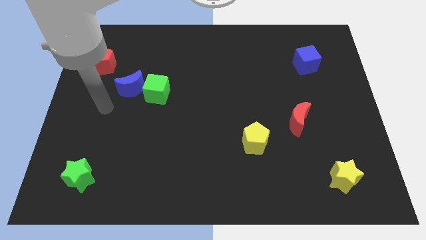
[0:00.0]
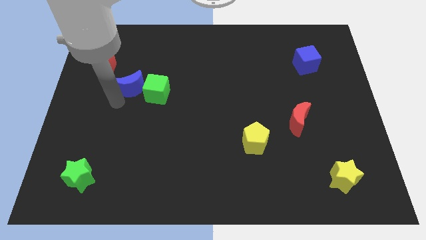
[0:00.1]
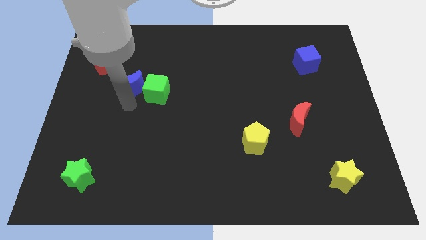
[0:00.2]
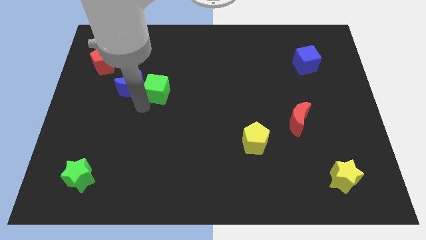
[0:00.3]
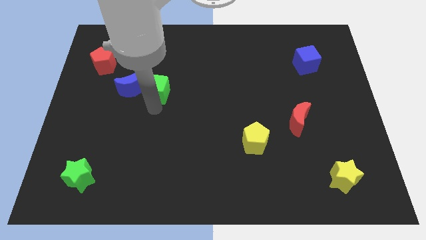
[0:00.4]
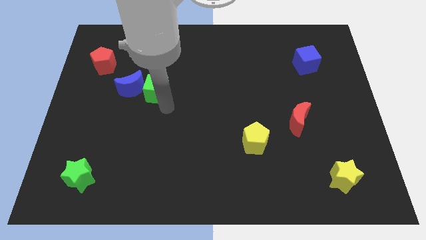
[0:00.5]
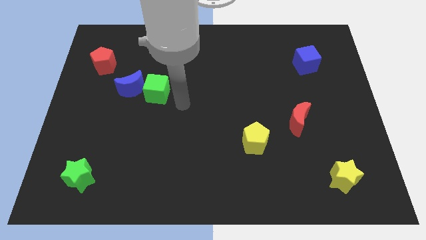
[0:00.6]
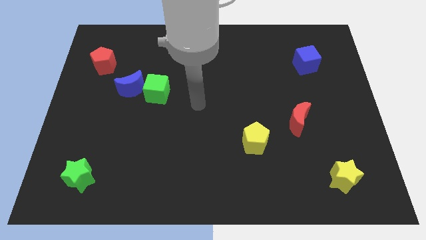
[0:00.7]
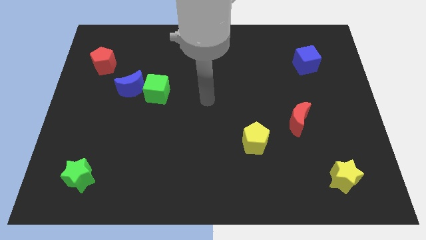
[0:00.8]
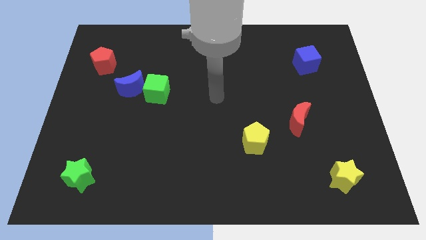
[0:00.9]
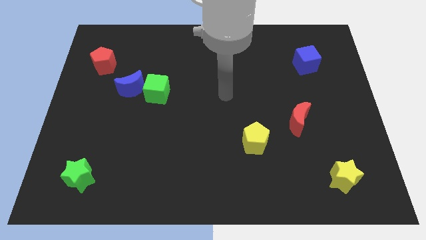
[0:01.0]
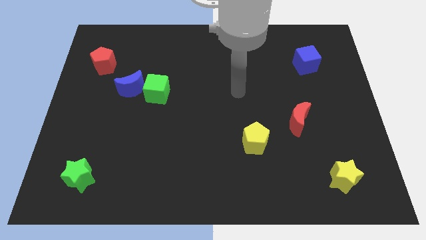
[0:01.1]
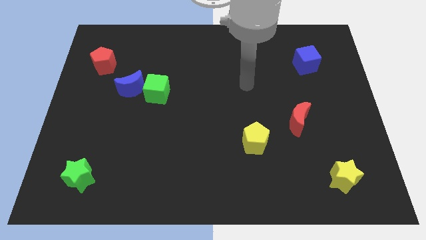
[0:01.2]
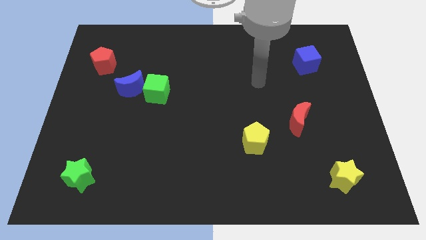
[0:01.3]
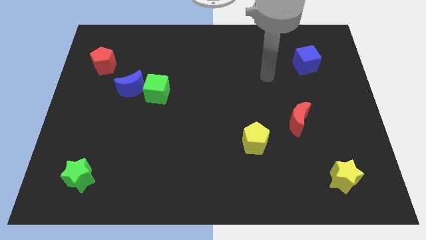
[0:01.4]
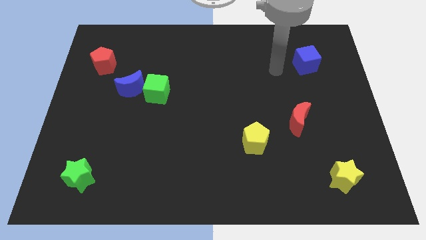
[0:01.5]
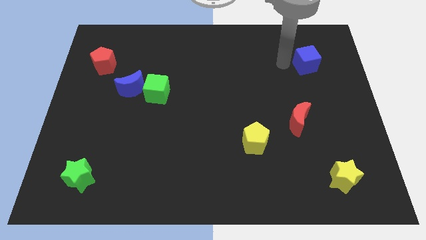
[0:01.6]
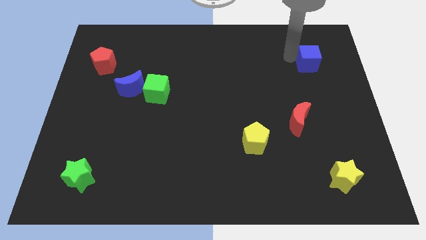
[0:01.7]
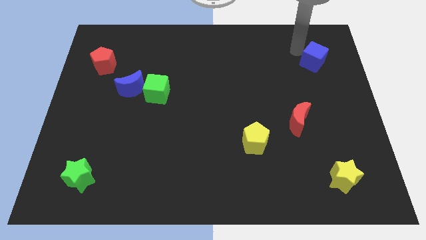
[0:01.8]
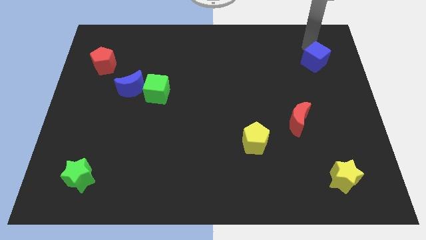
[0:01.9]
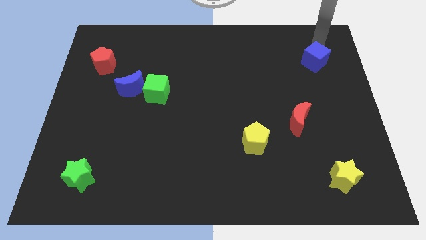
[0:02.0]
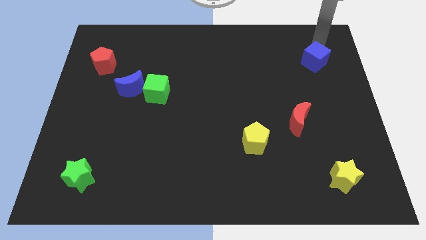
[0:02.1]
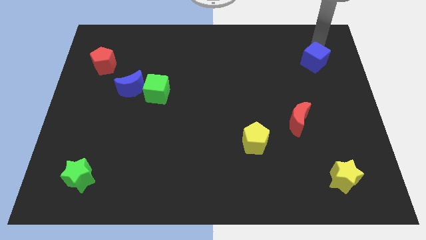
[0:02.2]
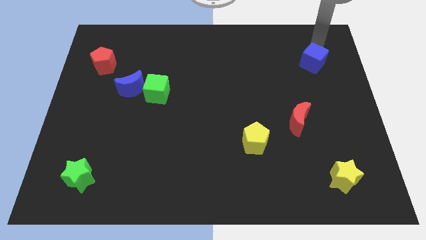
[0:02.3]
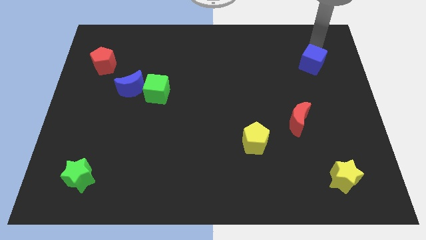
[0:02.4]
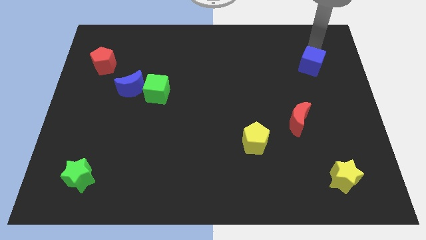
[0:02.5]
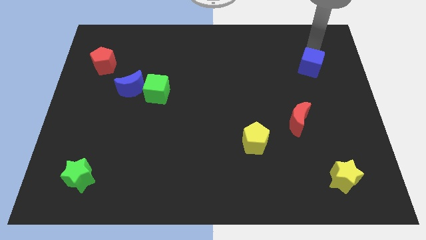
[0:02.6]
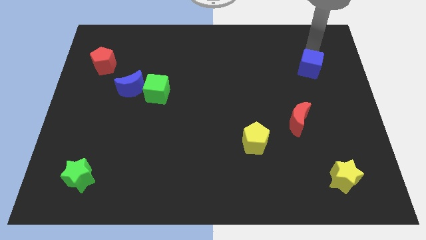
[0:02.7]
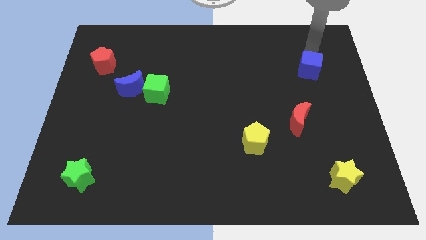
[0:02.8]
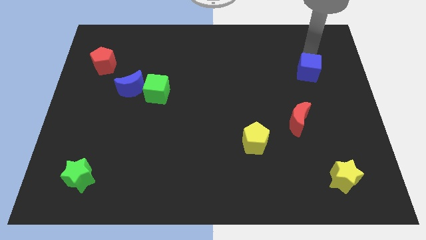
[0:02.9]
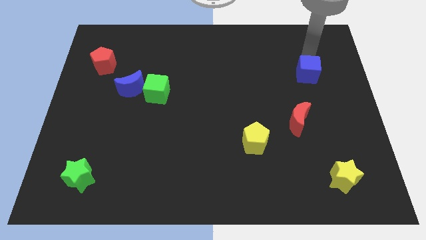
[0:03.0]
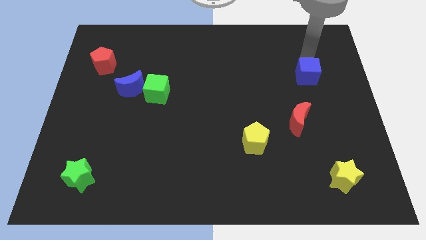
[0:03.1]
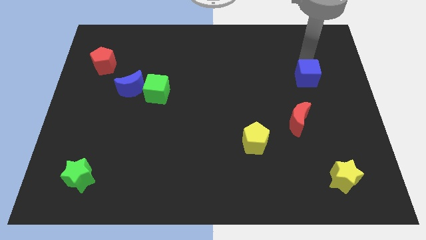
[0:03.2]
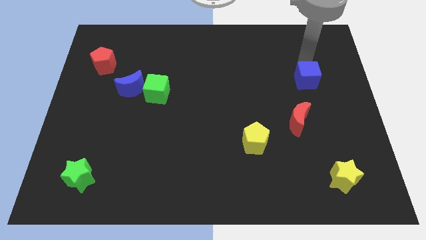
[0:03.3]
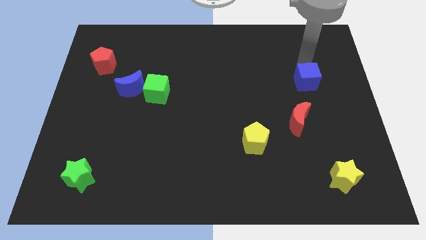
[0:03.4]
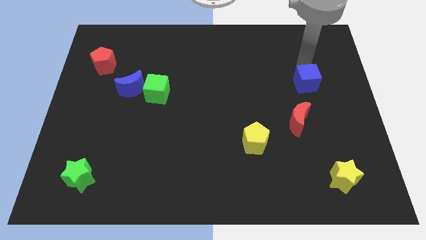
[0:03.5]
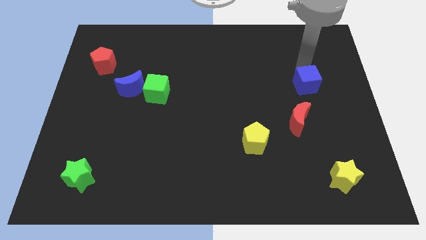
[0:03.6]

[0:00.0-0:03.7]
slide the blue cube somewhat down

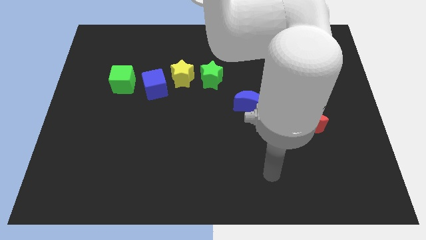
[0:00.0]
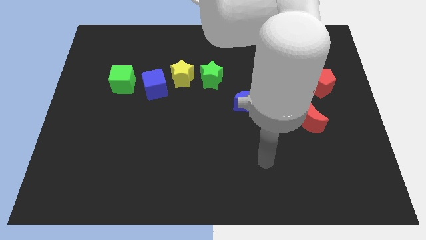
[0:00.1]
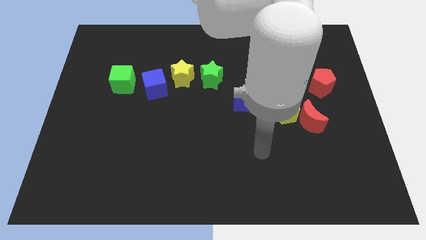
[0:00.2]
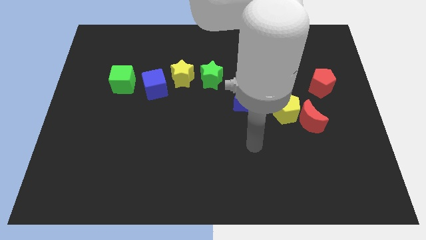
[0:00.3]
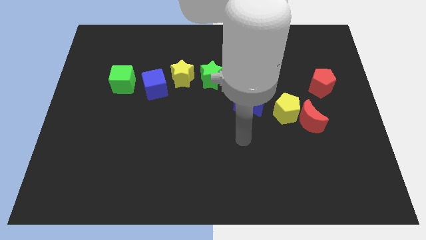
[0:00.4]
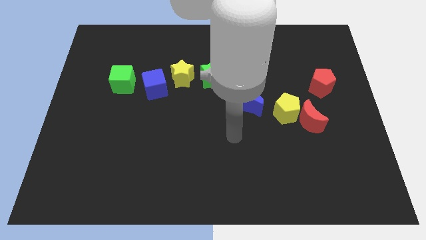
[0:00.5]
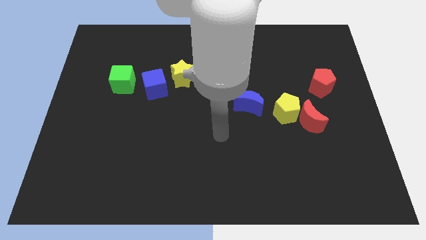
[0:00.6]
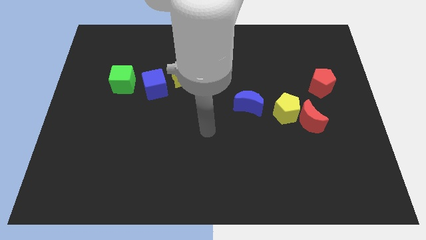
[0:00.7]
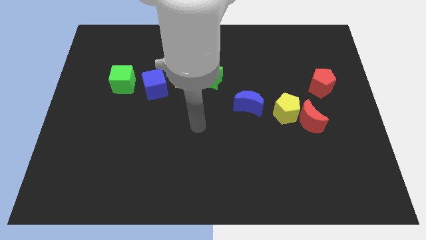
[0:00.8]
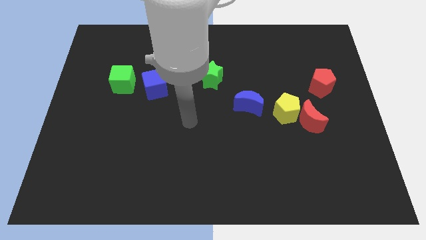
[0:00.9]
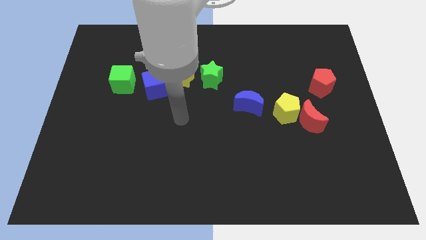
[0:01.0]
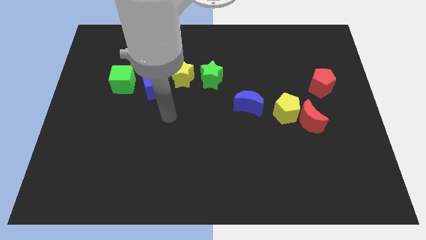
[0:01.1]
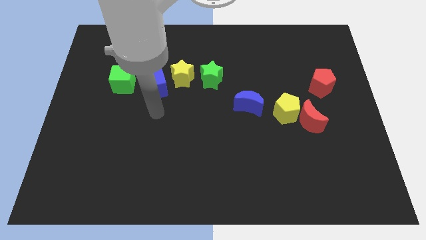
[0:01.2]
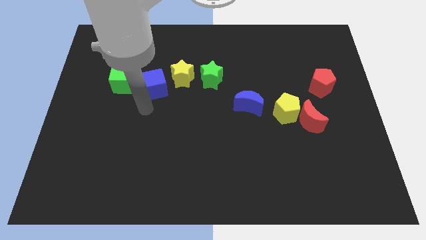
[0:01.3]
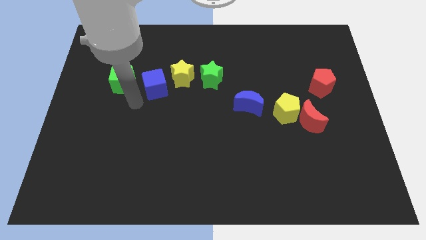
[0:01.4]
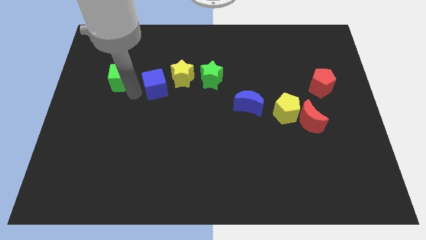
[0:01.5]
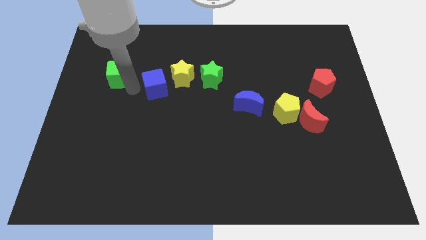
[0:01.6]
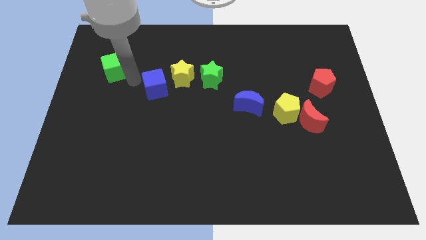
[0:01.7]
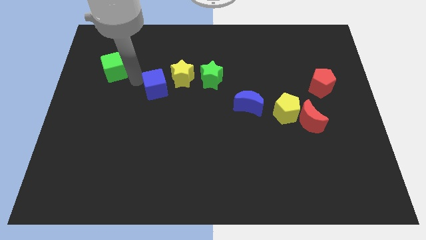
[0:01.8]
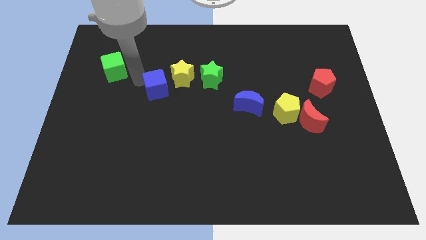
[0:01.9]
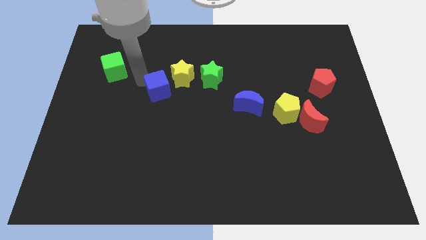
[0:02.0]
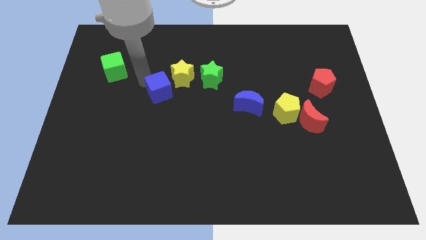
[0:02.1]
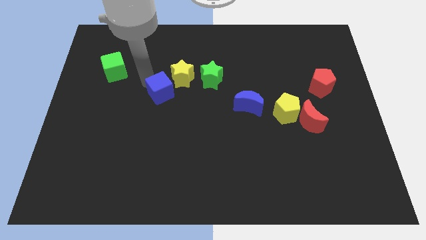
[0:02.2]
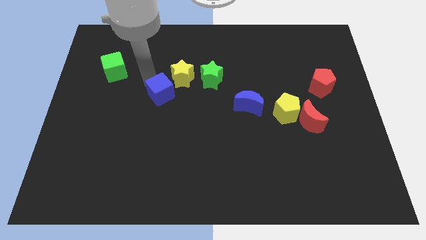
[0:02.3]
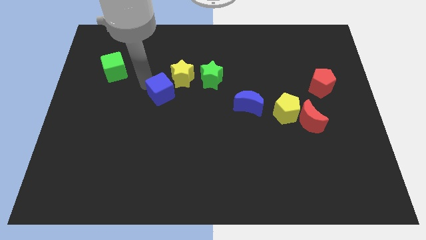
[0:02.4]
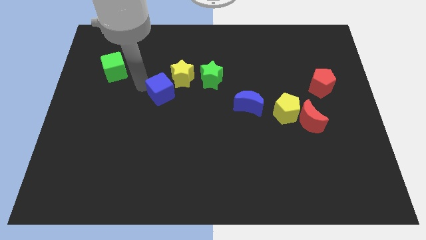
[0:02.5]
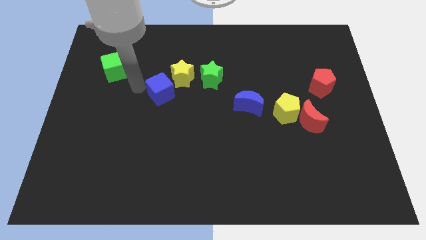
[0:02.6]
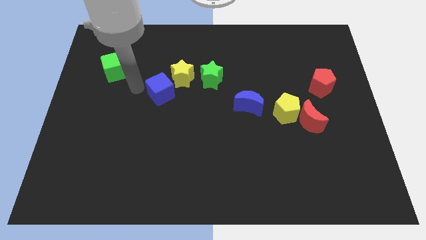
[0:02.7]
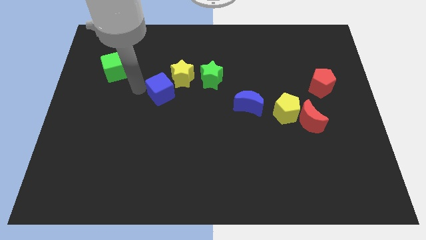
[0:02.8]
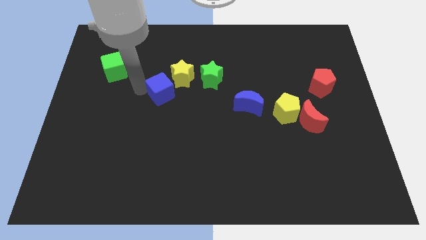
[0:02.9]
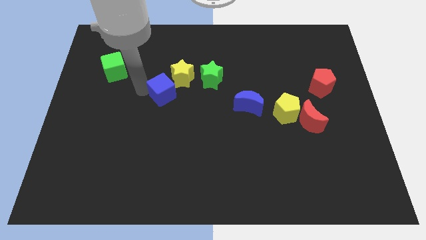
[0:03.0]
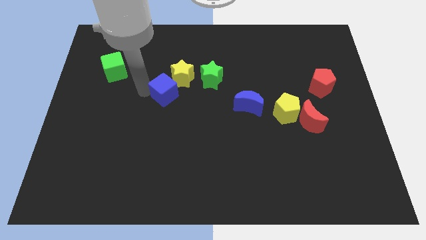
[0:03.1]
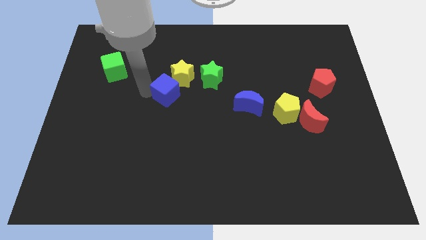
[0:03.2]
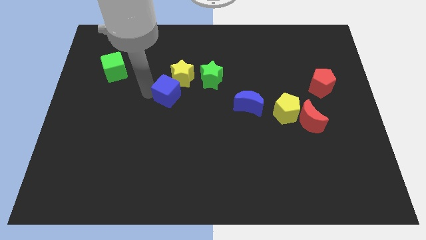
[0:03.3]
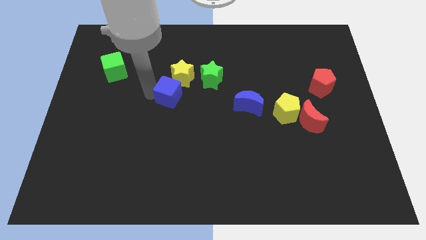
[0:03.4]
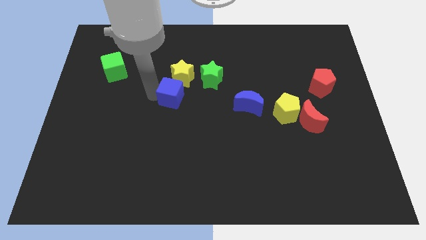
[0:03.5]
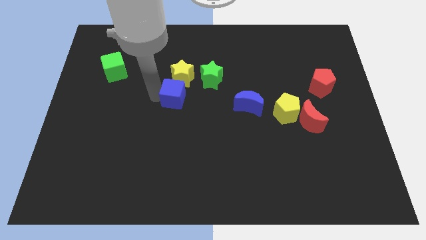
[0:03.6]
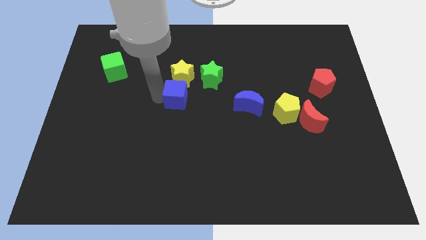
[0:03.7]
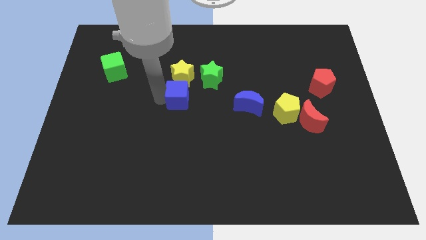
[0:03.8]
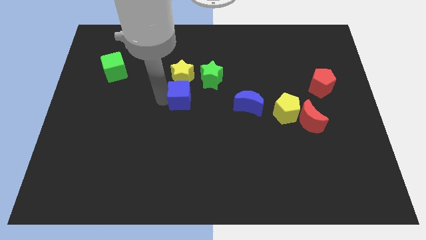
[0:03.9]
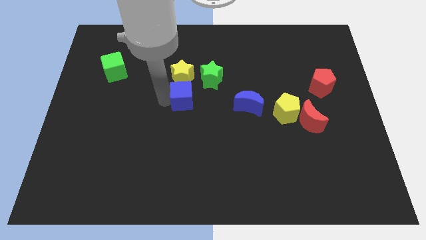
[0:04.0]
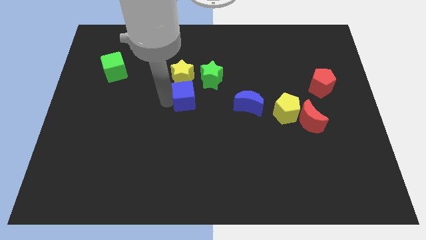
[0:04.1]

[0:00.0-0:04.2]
slide the blue cube slightly to the right
